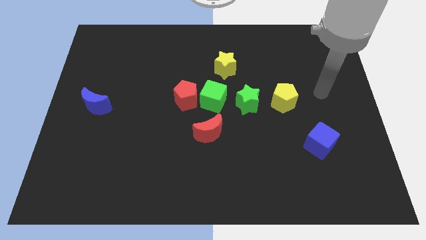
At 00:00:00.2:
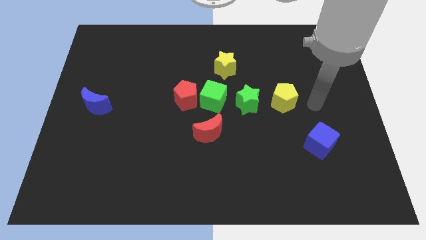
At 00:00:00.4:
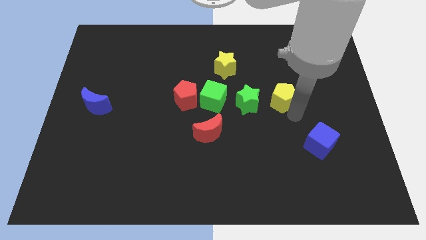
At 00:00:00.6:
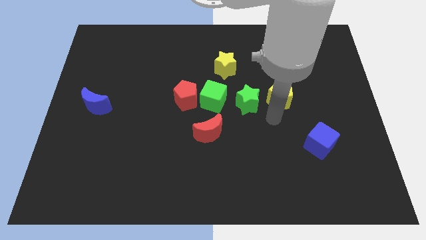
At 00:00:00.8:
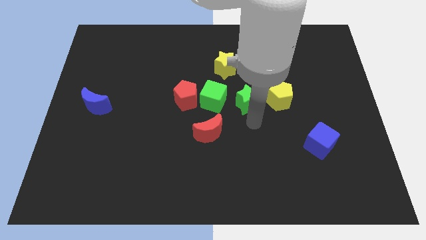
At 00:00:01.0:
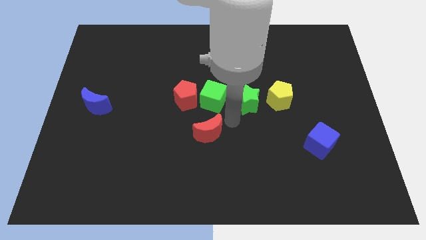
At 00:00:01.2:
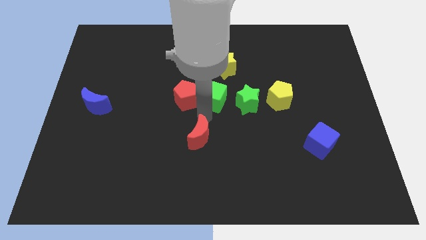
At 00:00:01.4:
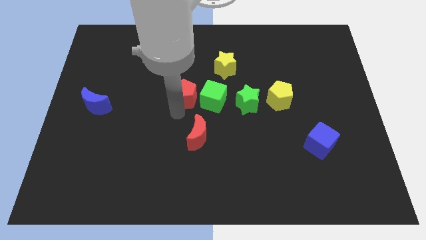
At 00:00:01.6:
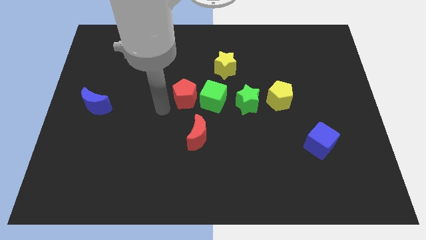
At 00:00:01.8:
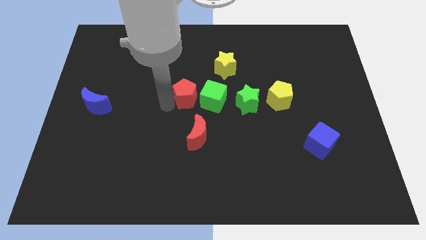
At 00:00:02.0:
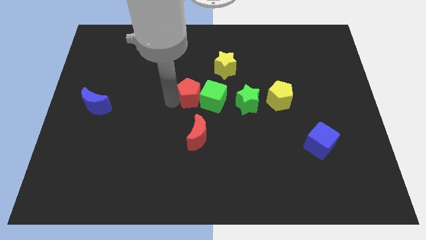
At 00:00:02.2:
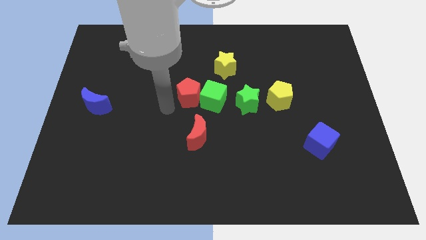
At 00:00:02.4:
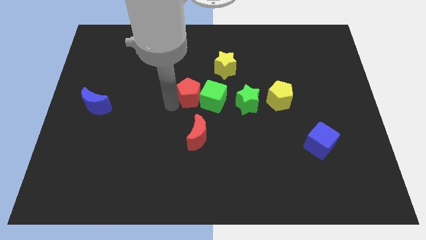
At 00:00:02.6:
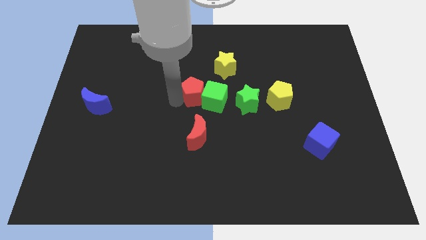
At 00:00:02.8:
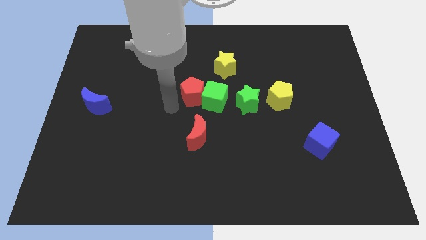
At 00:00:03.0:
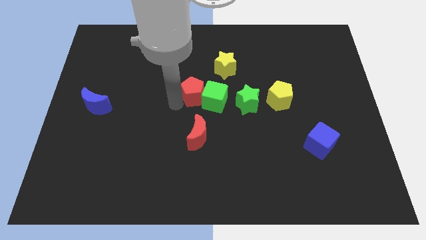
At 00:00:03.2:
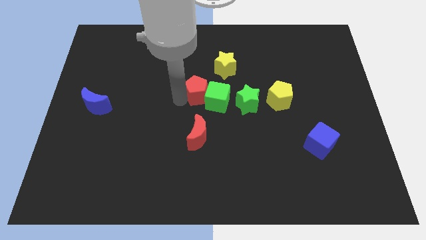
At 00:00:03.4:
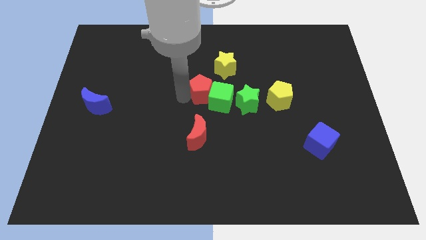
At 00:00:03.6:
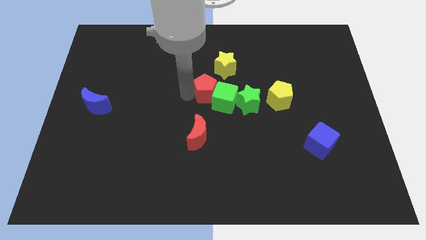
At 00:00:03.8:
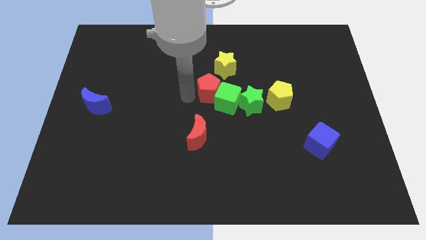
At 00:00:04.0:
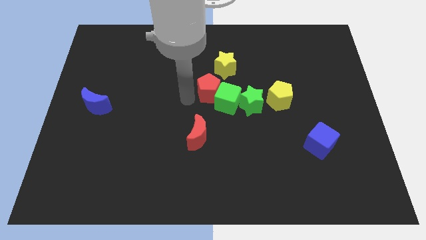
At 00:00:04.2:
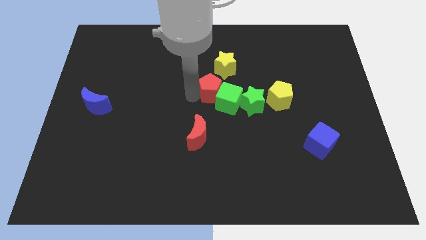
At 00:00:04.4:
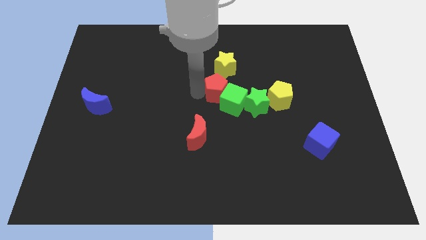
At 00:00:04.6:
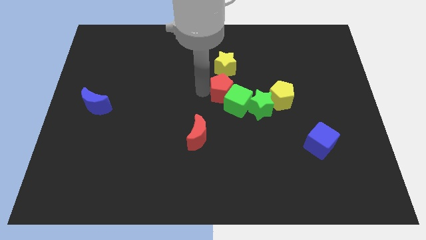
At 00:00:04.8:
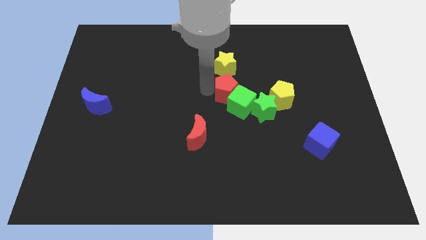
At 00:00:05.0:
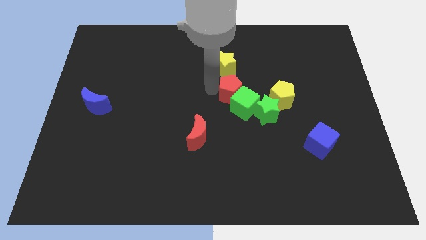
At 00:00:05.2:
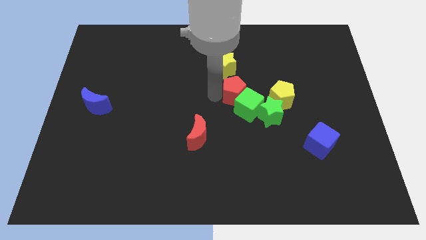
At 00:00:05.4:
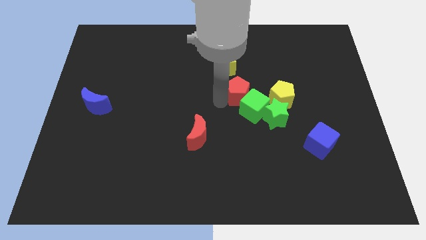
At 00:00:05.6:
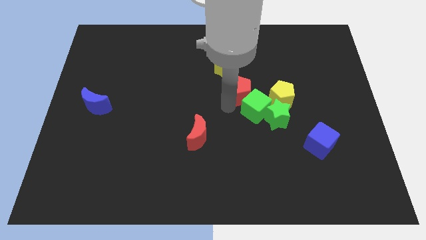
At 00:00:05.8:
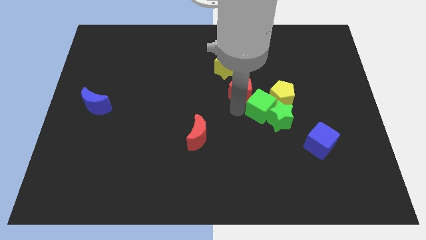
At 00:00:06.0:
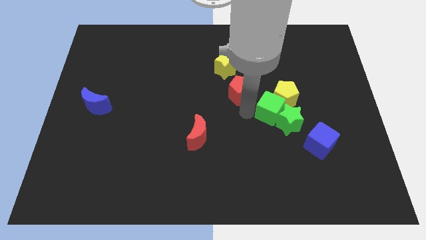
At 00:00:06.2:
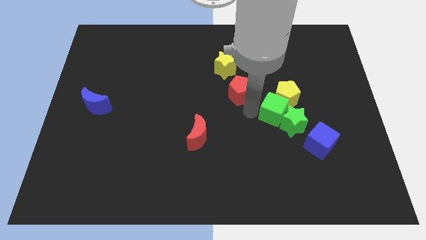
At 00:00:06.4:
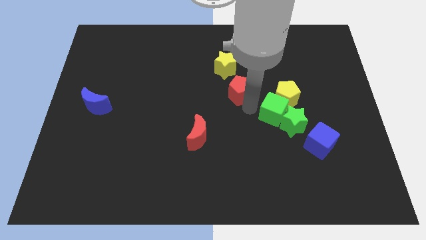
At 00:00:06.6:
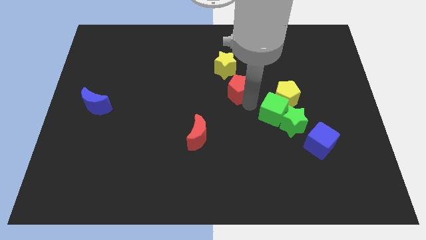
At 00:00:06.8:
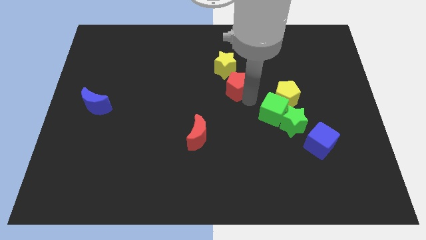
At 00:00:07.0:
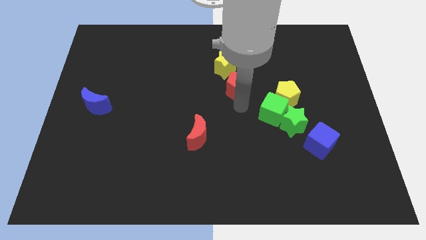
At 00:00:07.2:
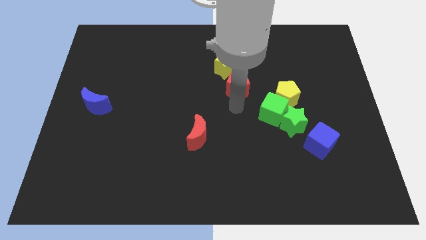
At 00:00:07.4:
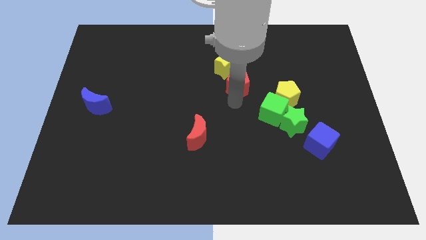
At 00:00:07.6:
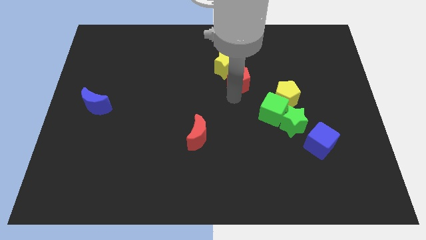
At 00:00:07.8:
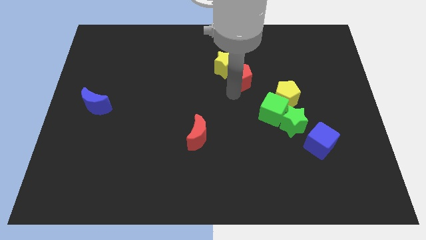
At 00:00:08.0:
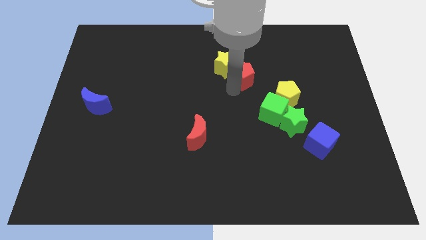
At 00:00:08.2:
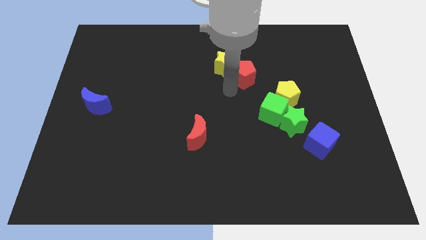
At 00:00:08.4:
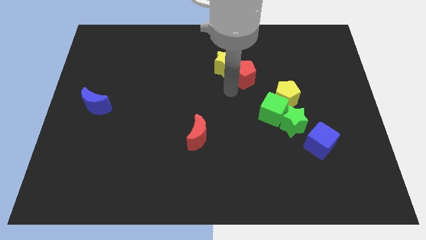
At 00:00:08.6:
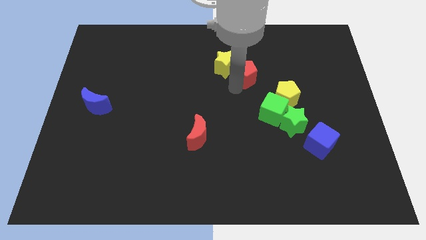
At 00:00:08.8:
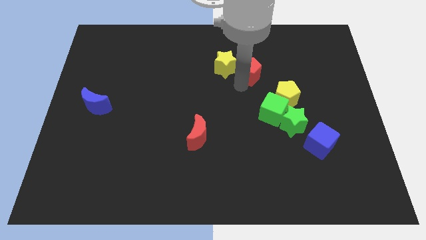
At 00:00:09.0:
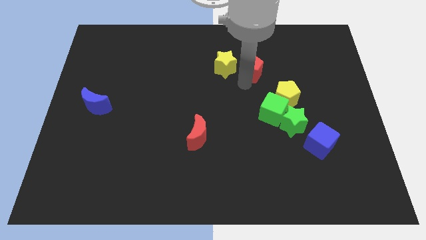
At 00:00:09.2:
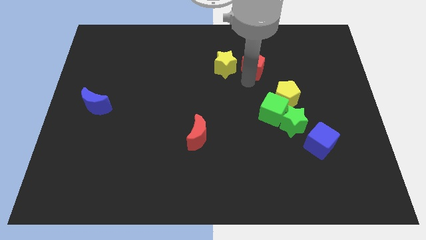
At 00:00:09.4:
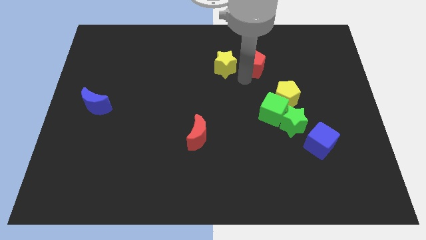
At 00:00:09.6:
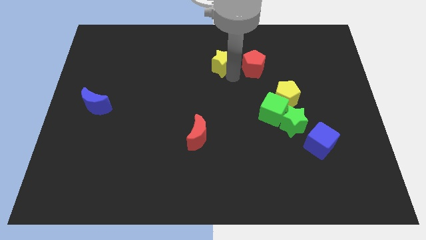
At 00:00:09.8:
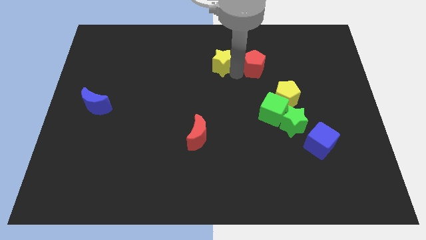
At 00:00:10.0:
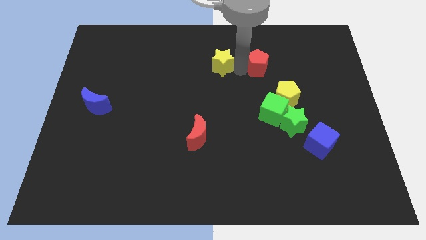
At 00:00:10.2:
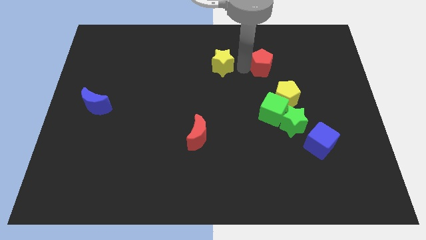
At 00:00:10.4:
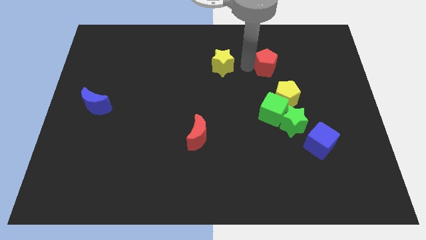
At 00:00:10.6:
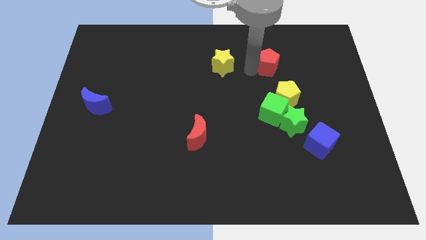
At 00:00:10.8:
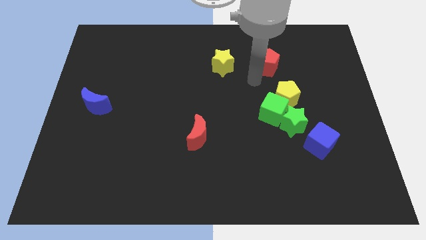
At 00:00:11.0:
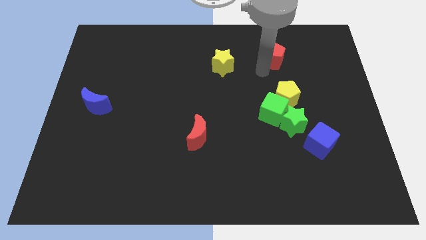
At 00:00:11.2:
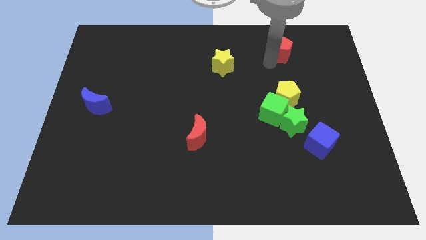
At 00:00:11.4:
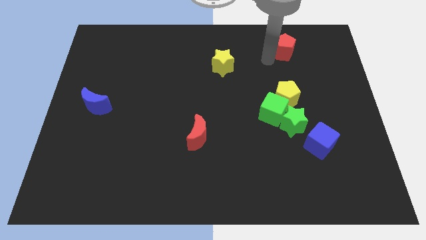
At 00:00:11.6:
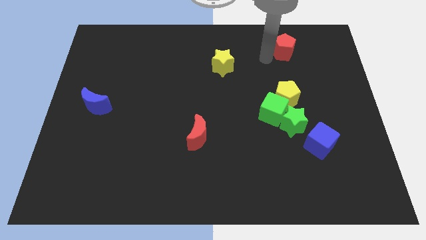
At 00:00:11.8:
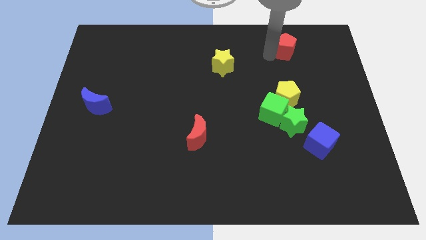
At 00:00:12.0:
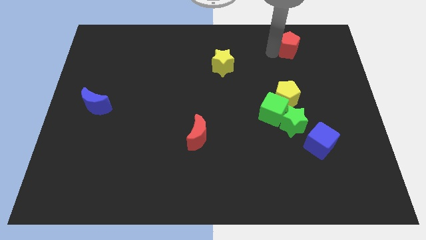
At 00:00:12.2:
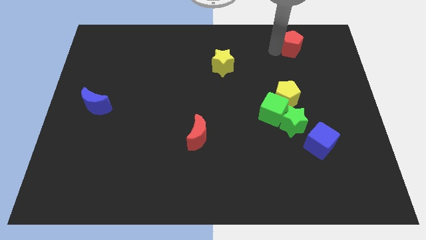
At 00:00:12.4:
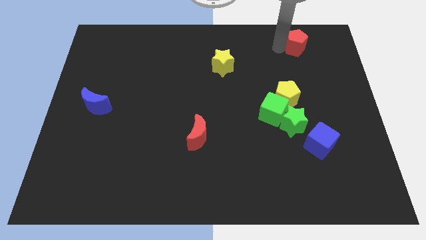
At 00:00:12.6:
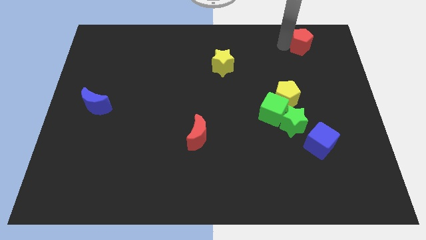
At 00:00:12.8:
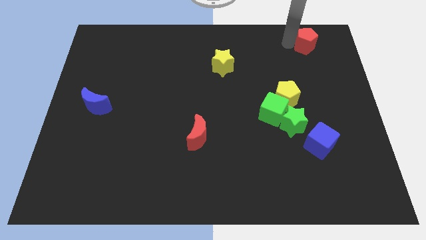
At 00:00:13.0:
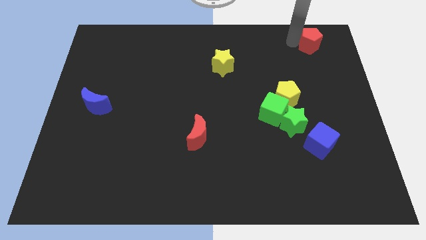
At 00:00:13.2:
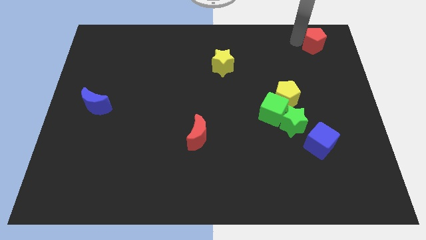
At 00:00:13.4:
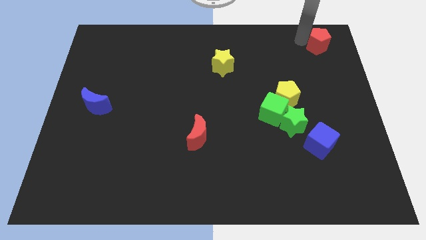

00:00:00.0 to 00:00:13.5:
slide the red pentagon to the top right of the board
